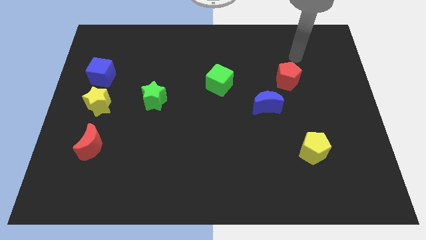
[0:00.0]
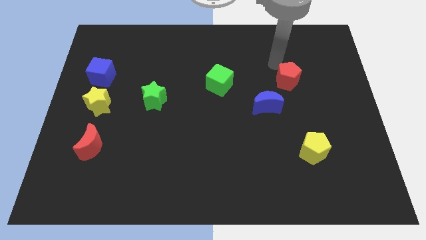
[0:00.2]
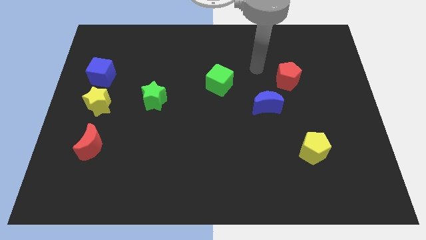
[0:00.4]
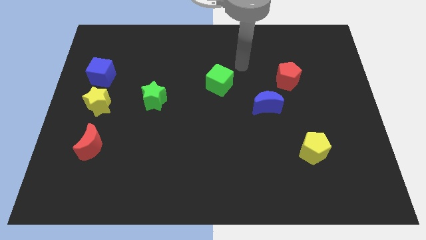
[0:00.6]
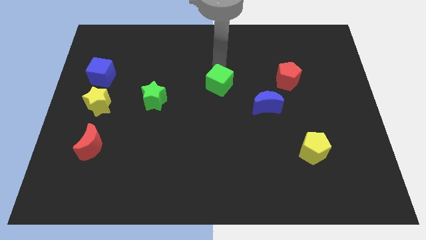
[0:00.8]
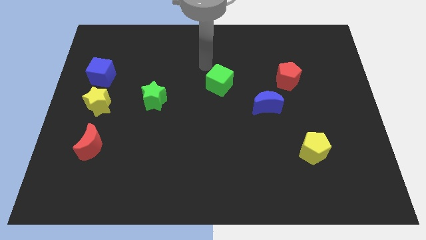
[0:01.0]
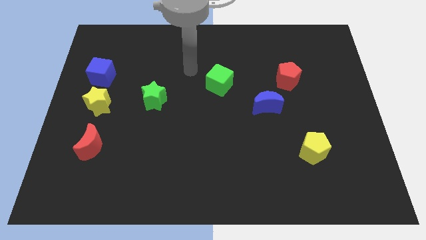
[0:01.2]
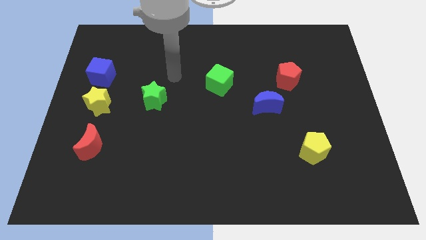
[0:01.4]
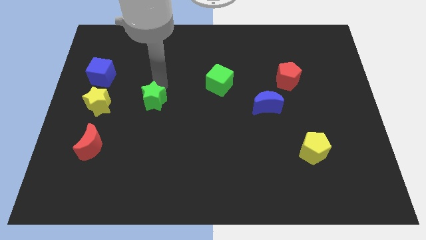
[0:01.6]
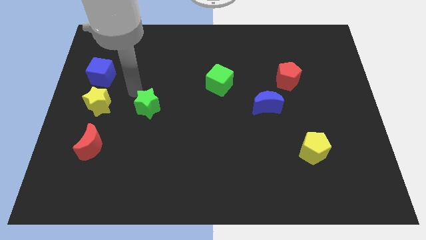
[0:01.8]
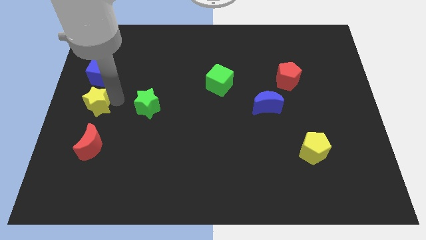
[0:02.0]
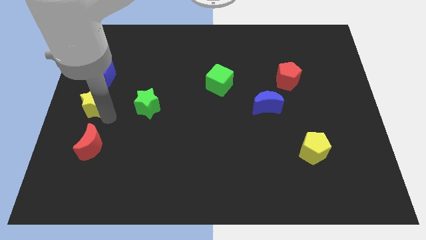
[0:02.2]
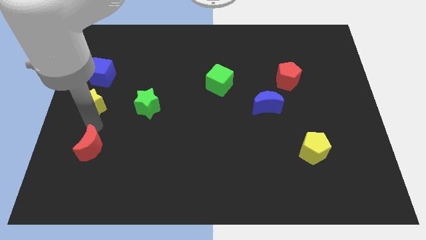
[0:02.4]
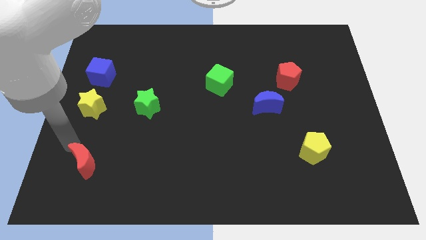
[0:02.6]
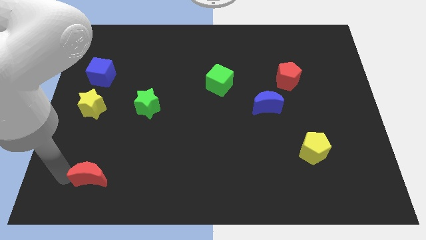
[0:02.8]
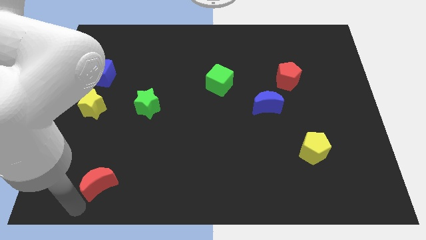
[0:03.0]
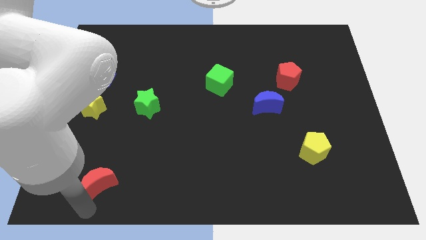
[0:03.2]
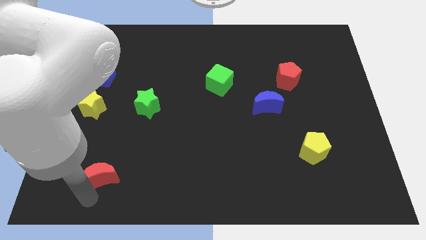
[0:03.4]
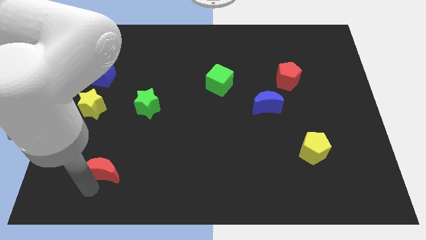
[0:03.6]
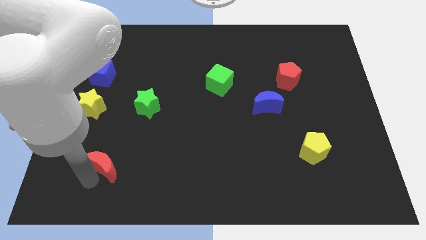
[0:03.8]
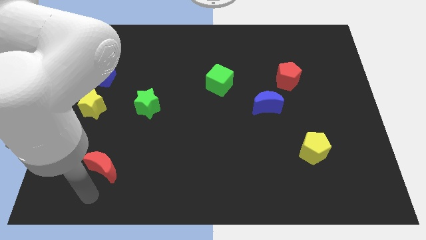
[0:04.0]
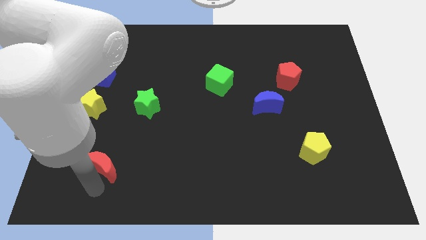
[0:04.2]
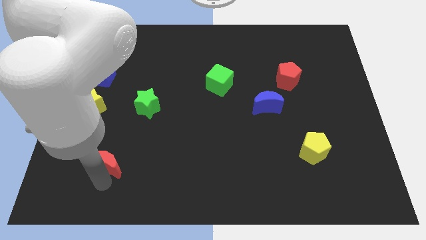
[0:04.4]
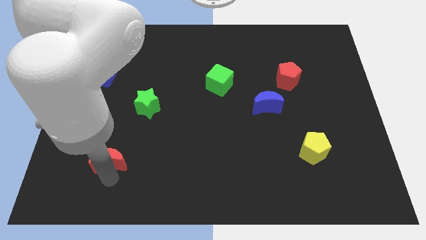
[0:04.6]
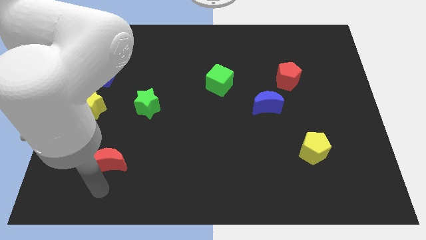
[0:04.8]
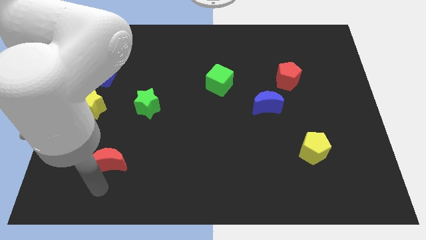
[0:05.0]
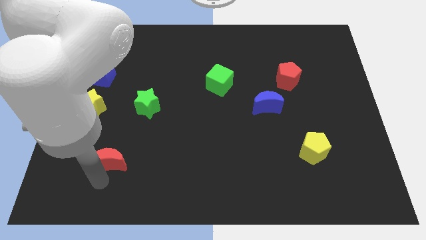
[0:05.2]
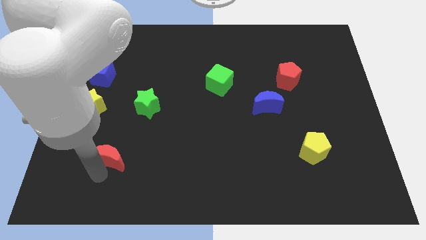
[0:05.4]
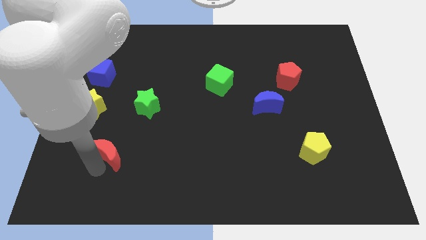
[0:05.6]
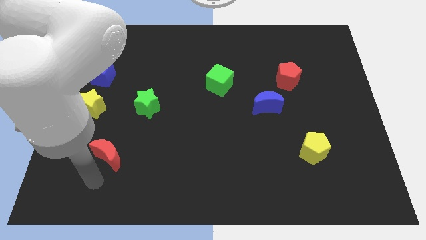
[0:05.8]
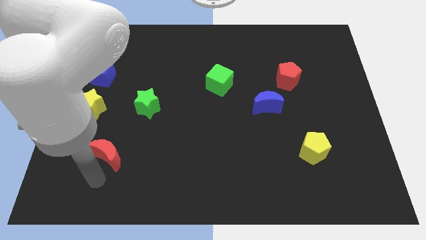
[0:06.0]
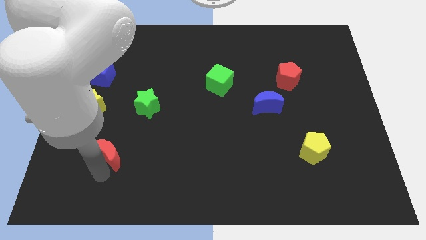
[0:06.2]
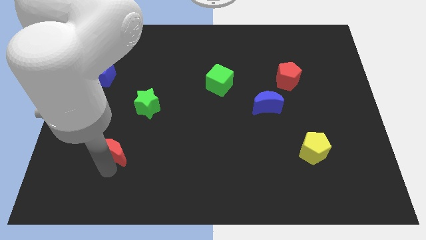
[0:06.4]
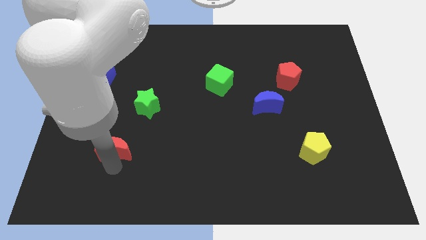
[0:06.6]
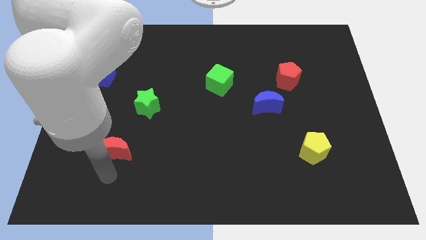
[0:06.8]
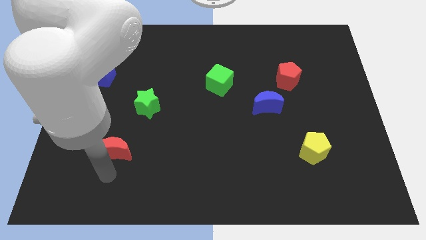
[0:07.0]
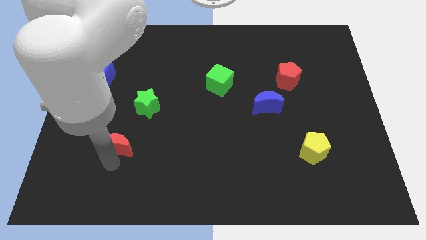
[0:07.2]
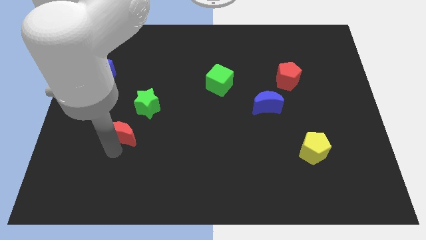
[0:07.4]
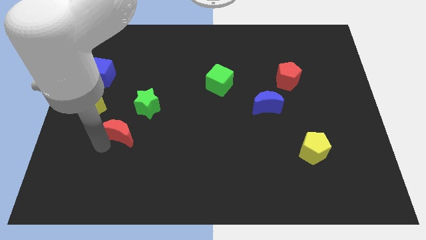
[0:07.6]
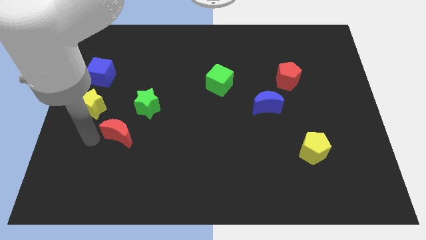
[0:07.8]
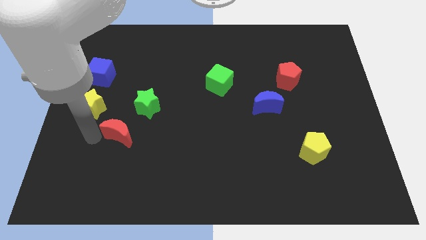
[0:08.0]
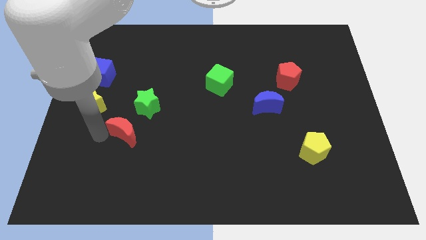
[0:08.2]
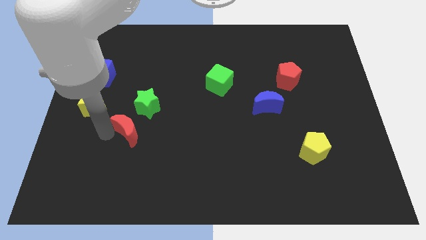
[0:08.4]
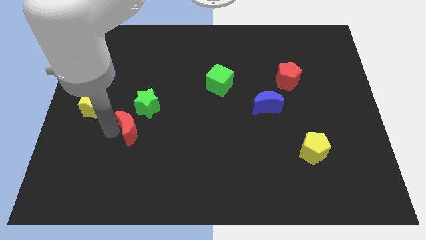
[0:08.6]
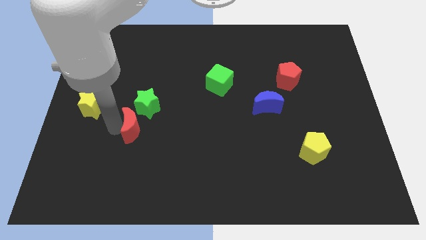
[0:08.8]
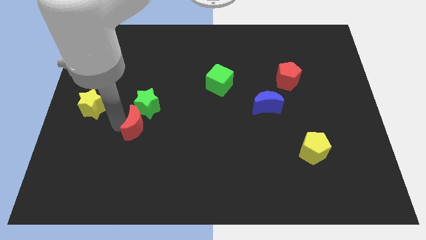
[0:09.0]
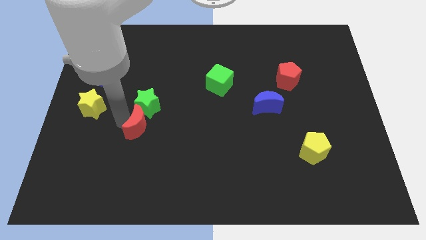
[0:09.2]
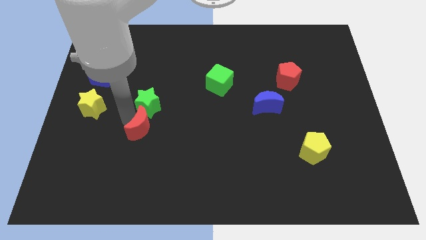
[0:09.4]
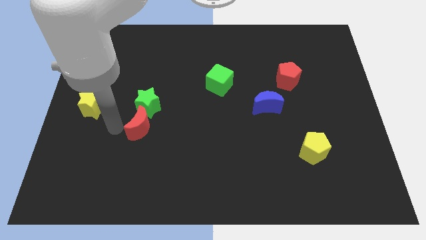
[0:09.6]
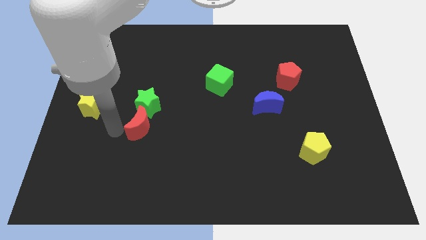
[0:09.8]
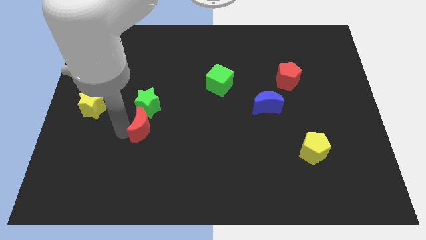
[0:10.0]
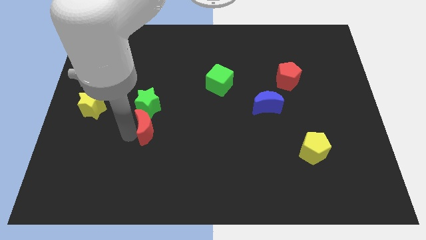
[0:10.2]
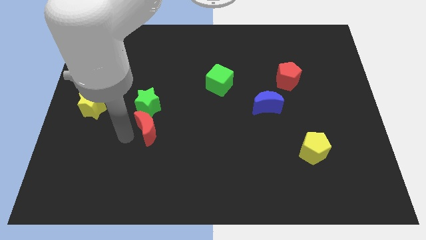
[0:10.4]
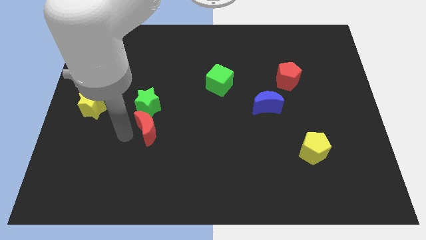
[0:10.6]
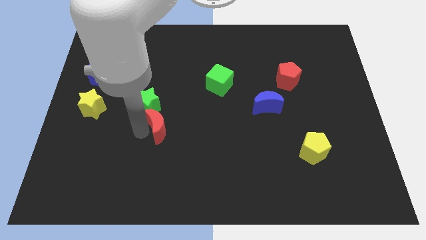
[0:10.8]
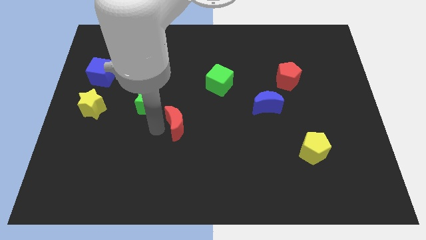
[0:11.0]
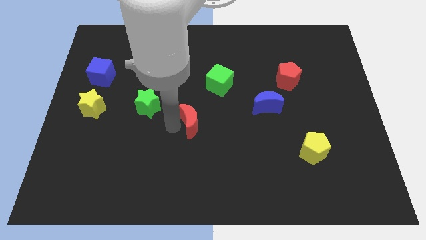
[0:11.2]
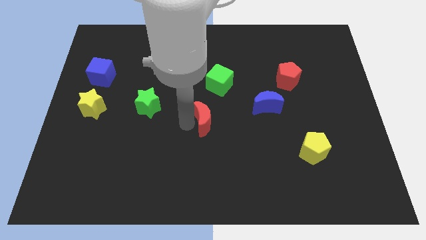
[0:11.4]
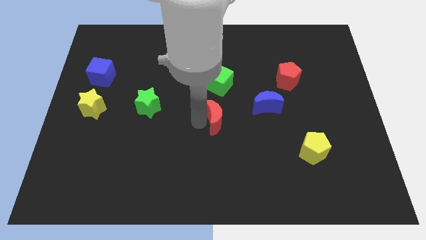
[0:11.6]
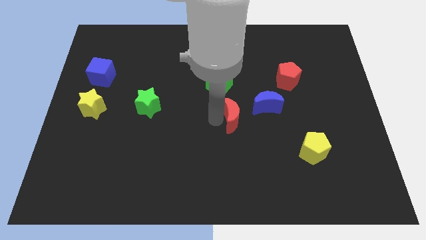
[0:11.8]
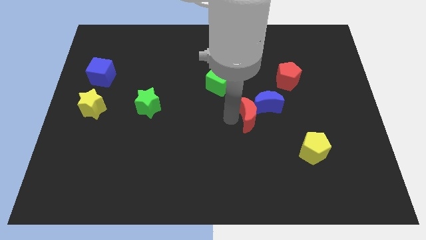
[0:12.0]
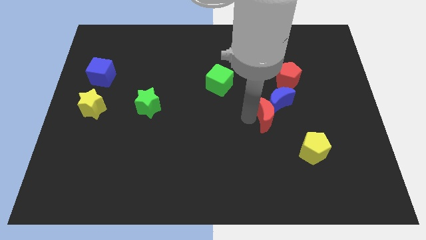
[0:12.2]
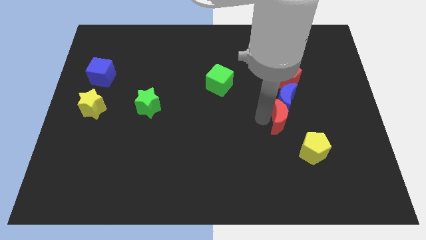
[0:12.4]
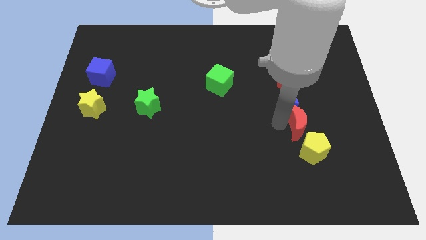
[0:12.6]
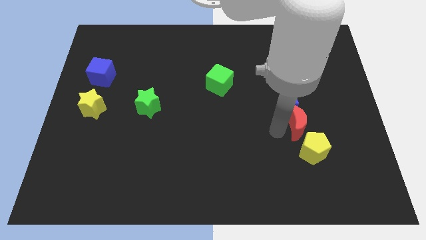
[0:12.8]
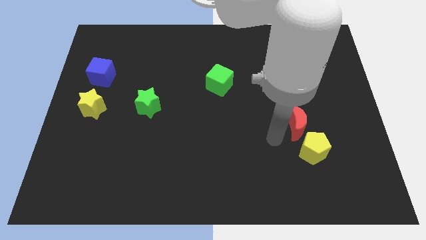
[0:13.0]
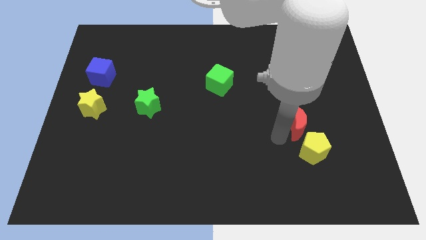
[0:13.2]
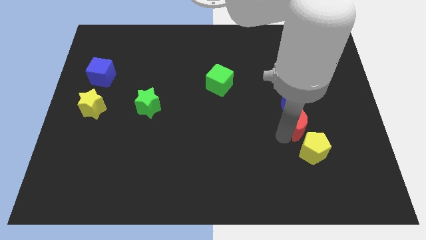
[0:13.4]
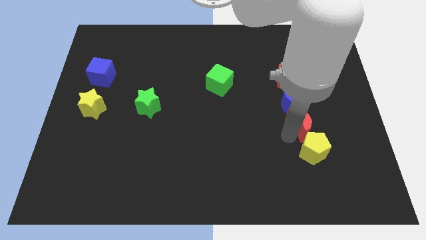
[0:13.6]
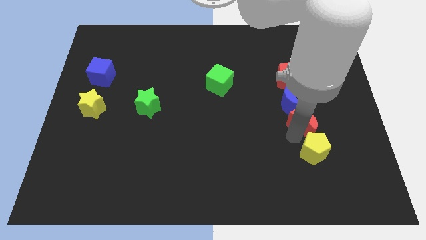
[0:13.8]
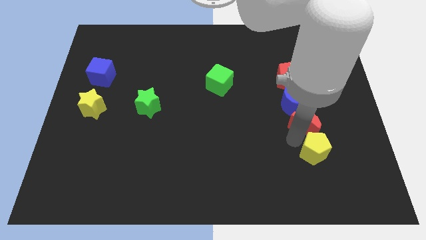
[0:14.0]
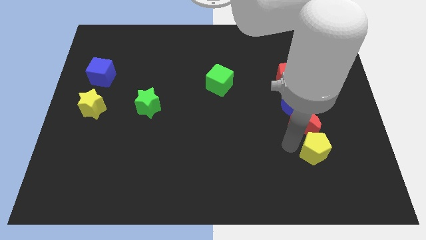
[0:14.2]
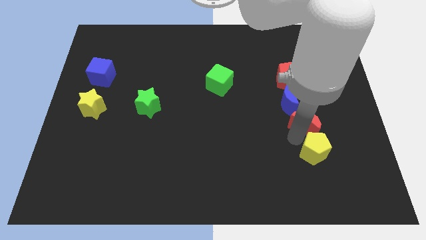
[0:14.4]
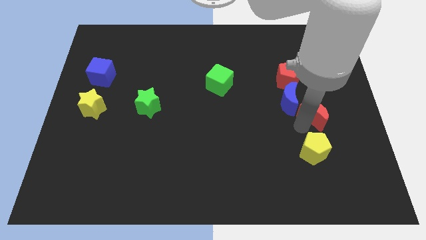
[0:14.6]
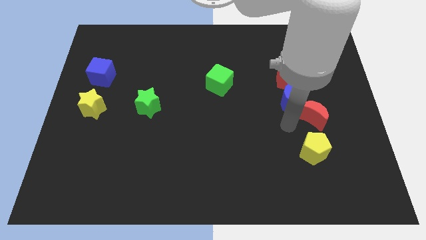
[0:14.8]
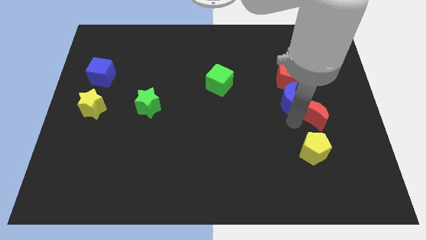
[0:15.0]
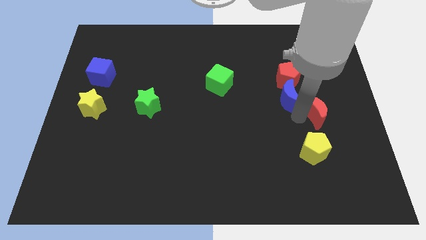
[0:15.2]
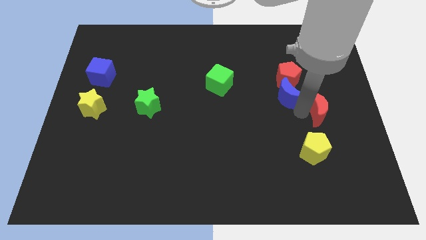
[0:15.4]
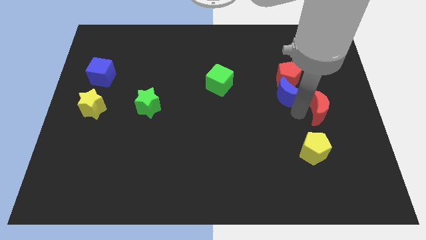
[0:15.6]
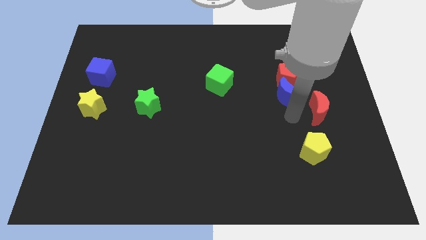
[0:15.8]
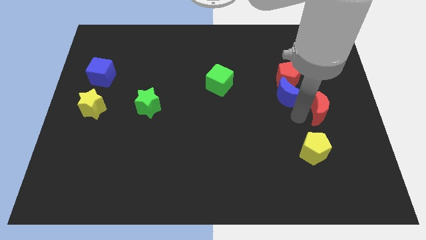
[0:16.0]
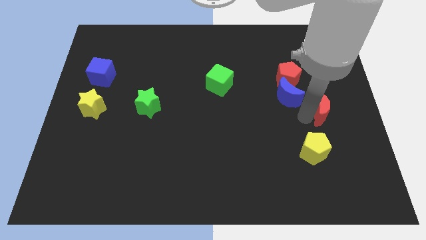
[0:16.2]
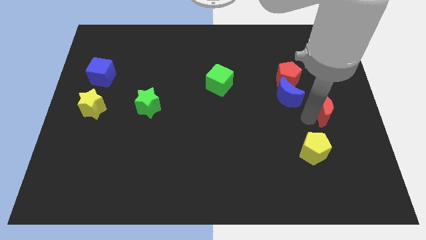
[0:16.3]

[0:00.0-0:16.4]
put the red moon to the right side of the board
